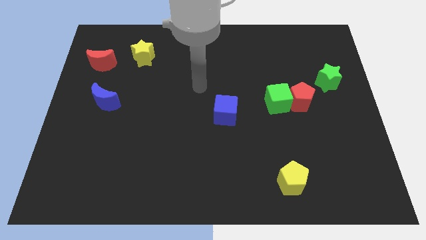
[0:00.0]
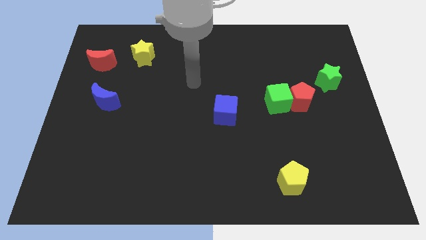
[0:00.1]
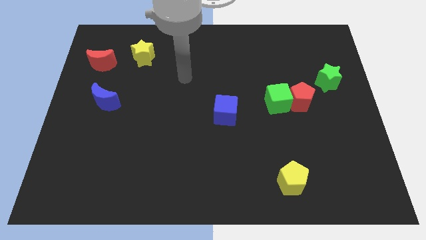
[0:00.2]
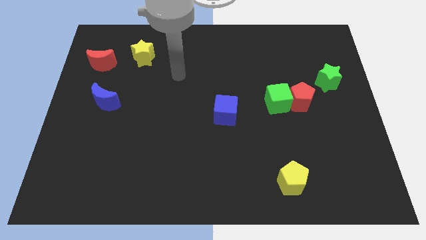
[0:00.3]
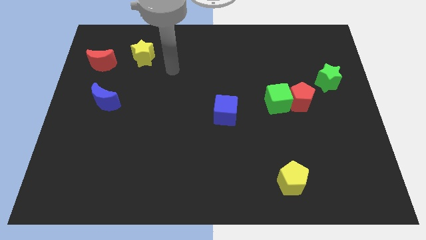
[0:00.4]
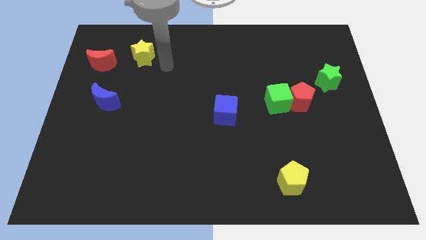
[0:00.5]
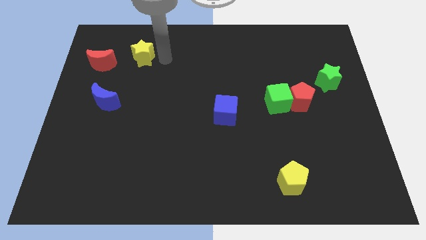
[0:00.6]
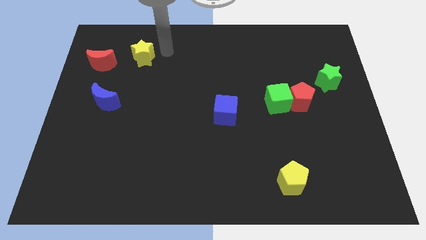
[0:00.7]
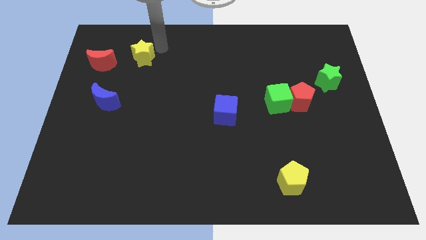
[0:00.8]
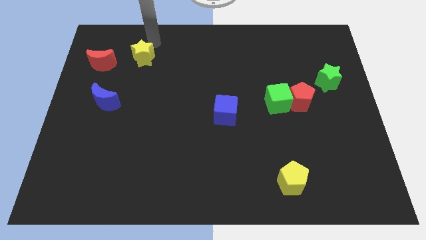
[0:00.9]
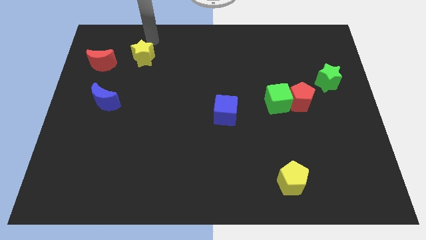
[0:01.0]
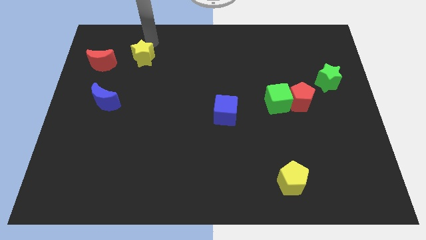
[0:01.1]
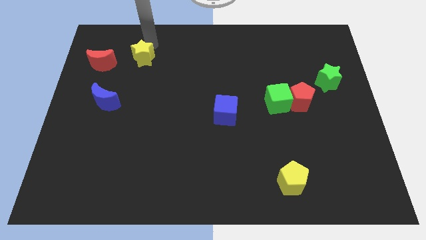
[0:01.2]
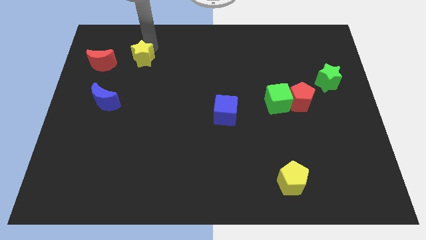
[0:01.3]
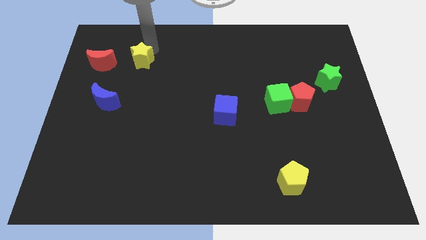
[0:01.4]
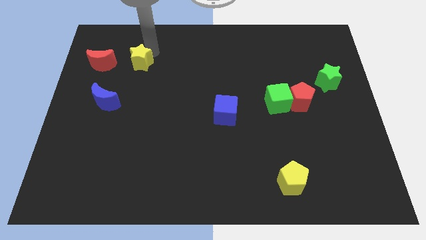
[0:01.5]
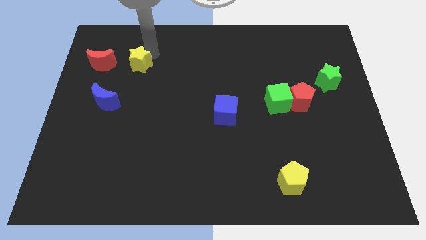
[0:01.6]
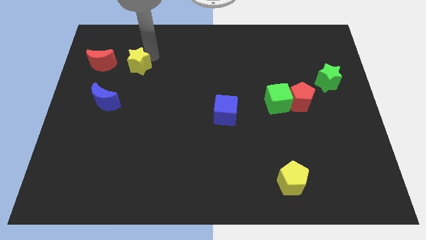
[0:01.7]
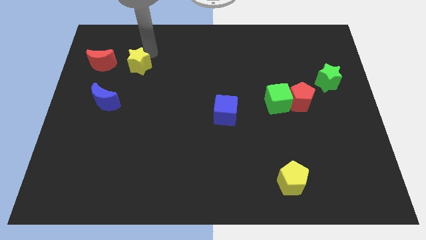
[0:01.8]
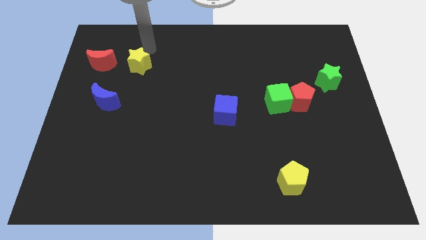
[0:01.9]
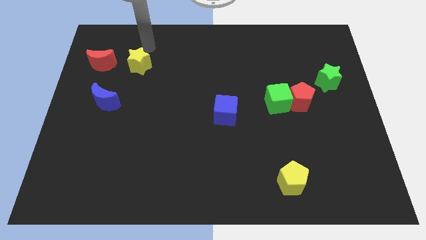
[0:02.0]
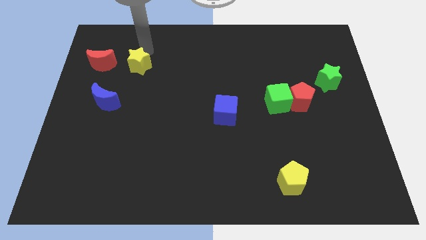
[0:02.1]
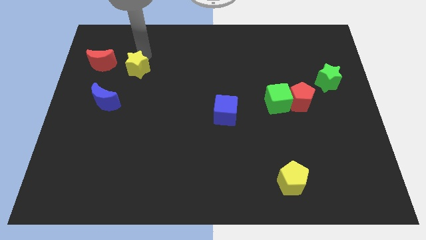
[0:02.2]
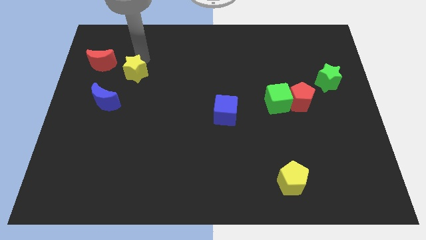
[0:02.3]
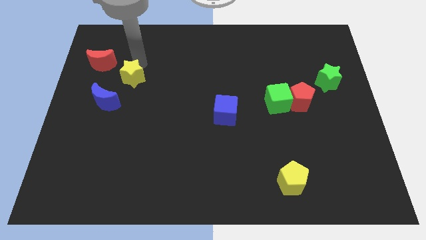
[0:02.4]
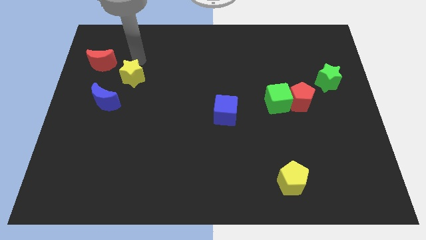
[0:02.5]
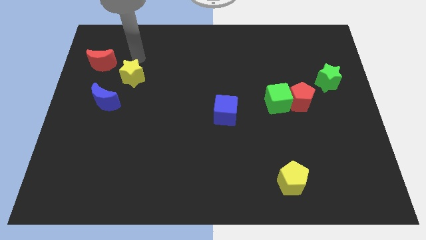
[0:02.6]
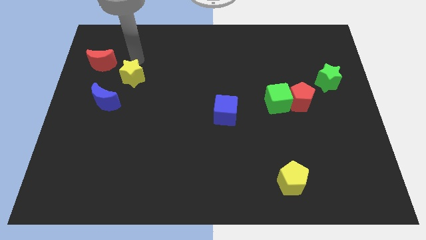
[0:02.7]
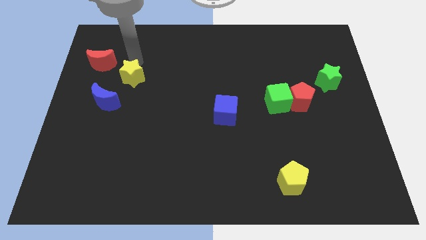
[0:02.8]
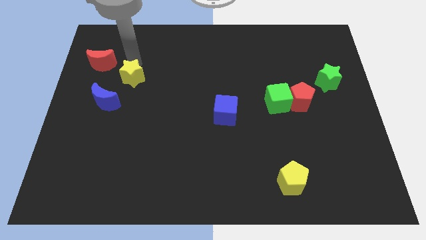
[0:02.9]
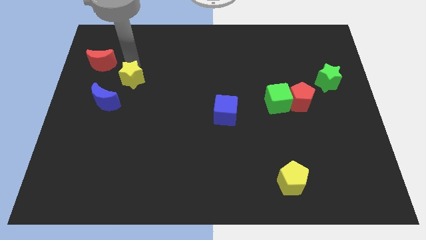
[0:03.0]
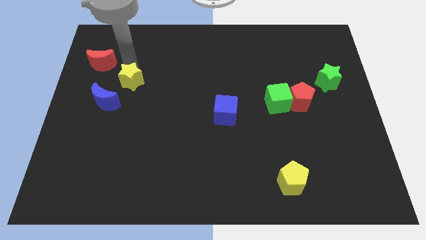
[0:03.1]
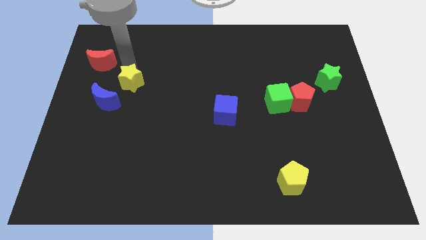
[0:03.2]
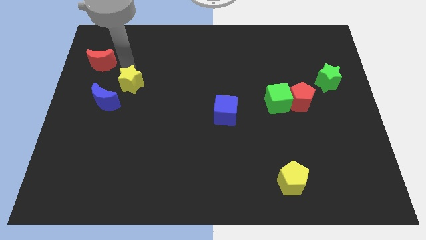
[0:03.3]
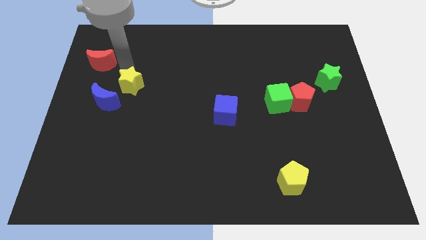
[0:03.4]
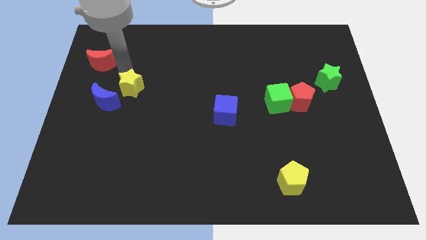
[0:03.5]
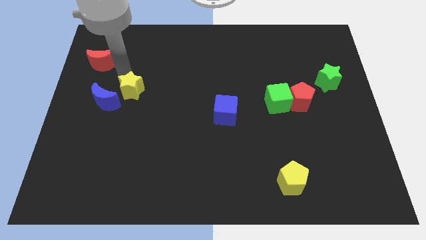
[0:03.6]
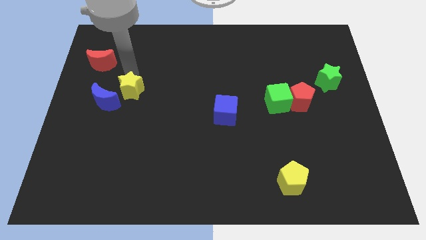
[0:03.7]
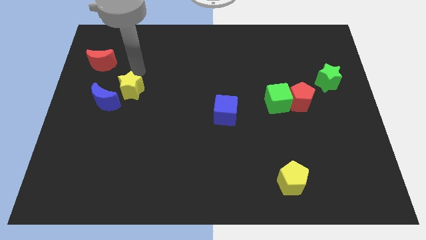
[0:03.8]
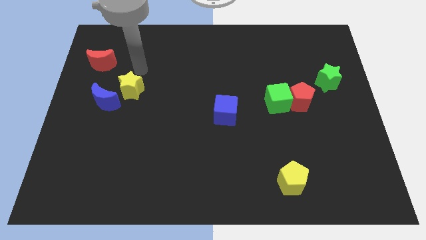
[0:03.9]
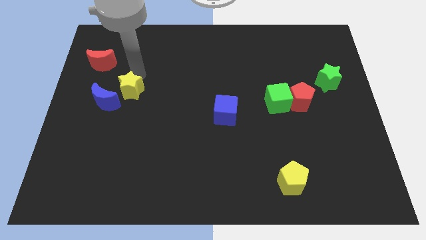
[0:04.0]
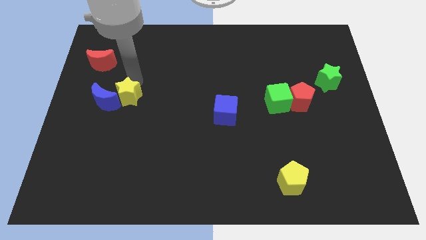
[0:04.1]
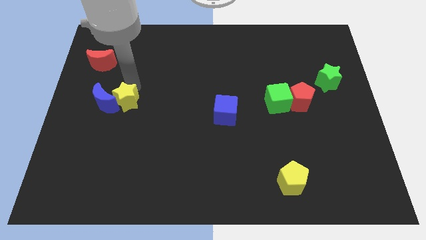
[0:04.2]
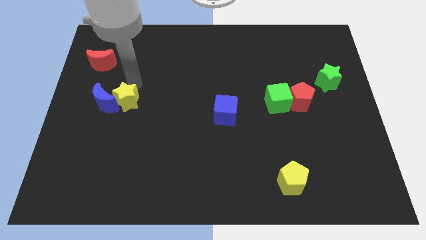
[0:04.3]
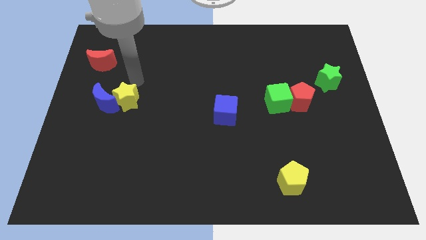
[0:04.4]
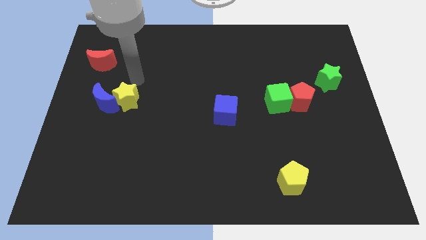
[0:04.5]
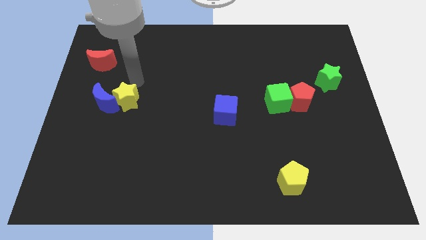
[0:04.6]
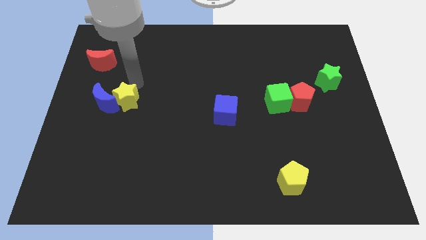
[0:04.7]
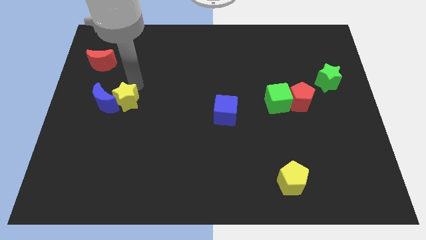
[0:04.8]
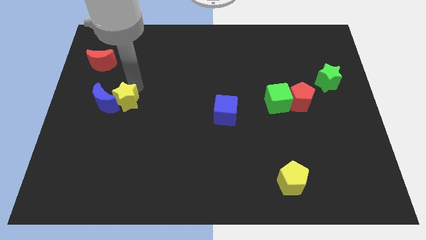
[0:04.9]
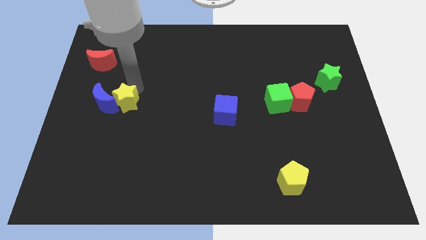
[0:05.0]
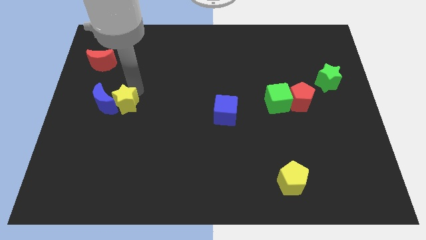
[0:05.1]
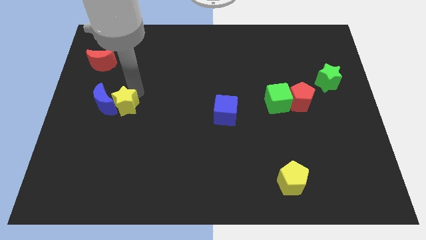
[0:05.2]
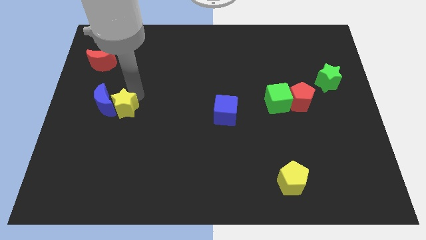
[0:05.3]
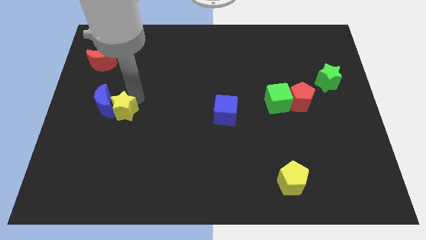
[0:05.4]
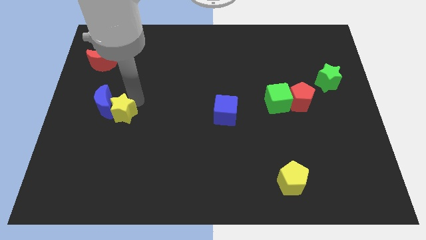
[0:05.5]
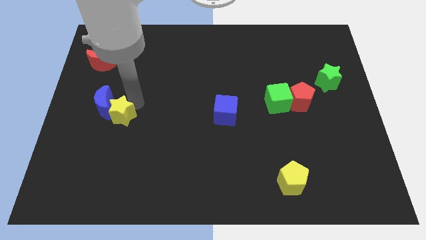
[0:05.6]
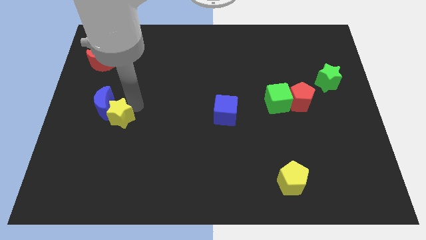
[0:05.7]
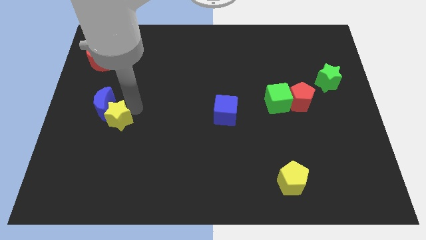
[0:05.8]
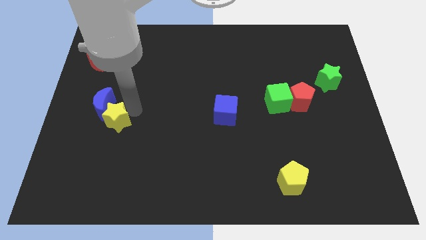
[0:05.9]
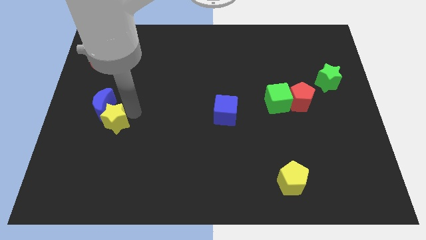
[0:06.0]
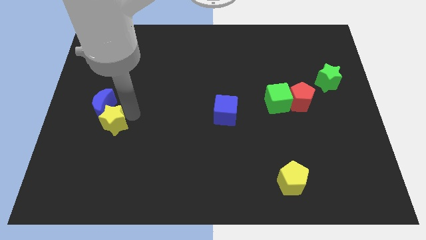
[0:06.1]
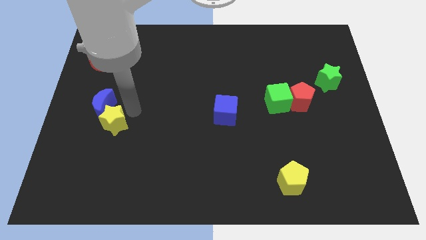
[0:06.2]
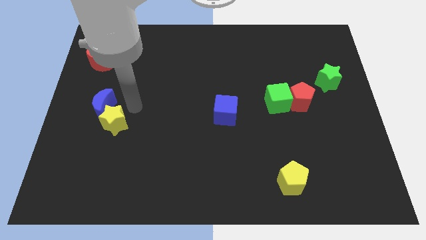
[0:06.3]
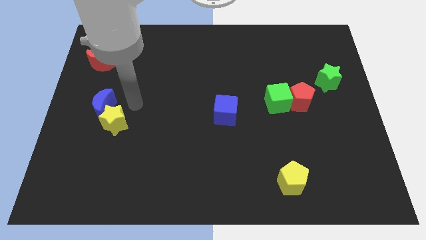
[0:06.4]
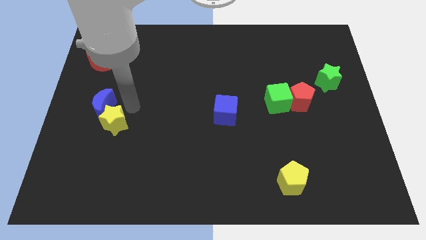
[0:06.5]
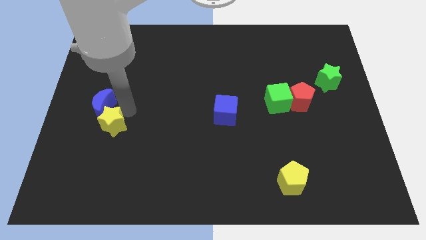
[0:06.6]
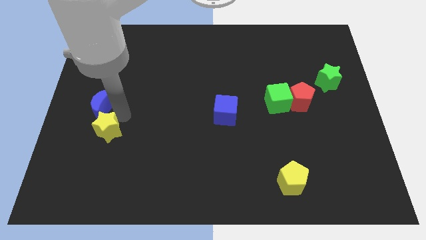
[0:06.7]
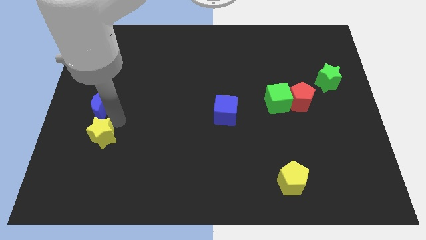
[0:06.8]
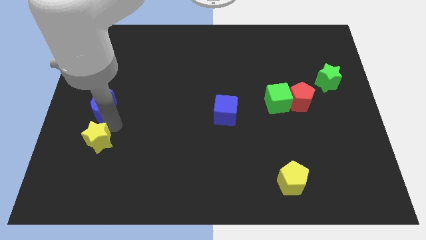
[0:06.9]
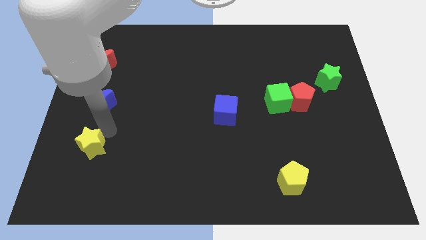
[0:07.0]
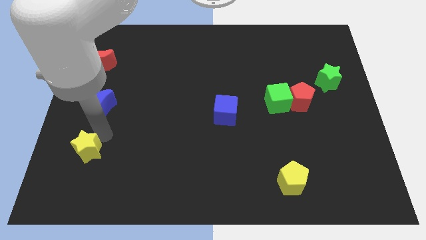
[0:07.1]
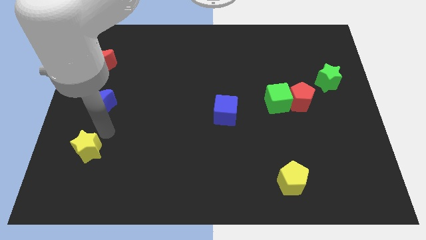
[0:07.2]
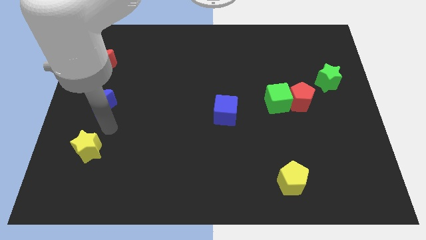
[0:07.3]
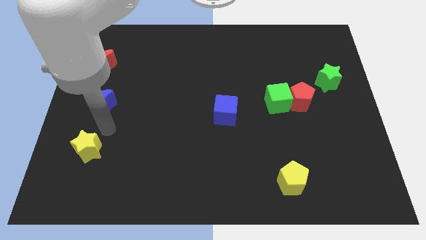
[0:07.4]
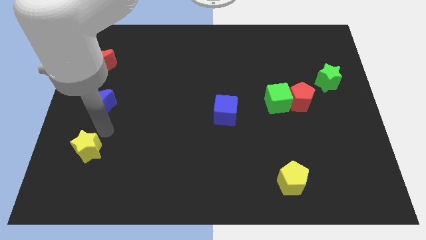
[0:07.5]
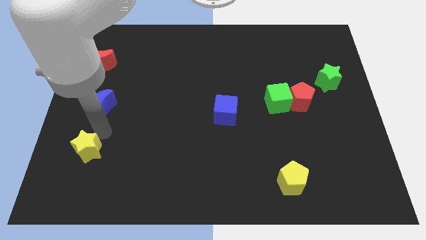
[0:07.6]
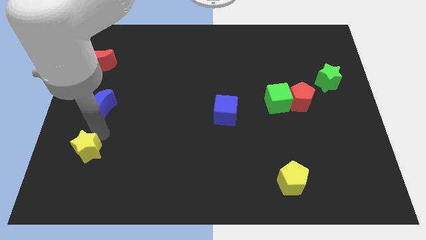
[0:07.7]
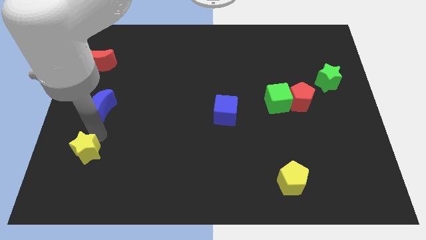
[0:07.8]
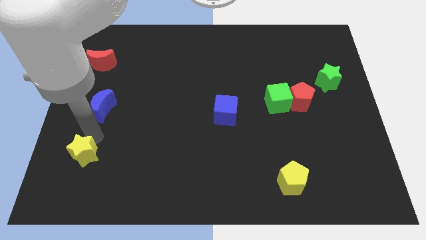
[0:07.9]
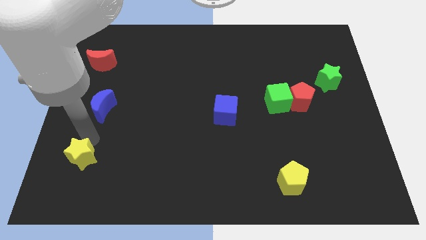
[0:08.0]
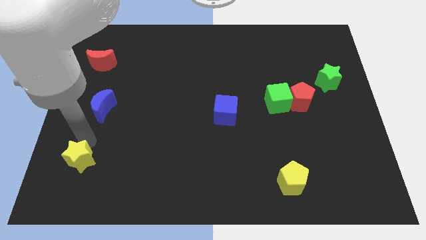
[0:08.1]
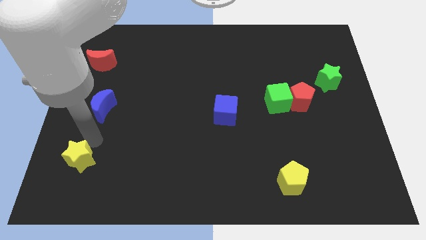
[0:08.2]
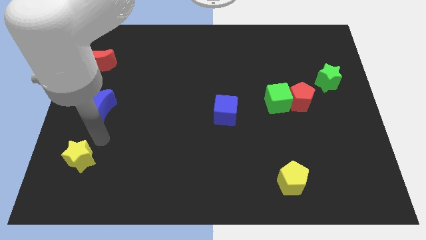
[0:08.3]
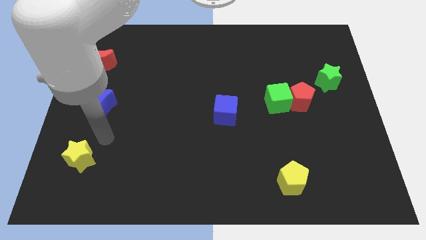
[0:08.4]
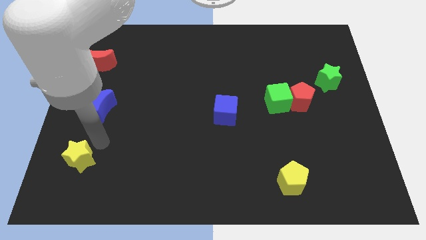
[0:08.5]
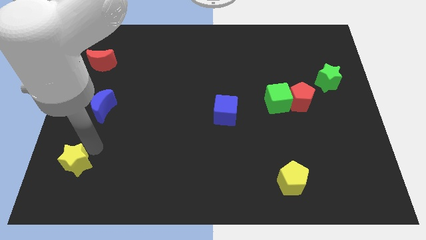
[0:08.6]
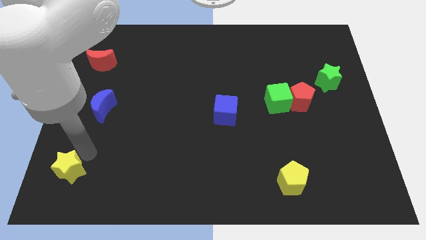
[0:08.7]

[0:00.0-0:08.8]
push the yellow star to the bottom left of the board
